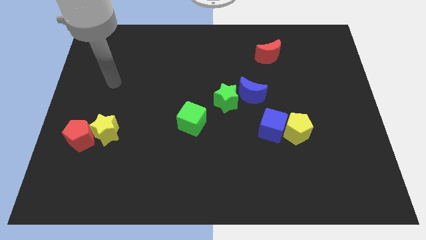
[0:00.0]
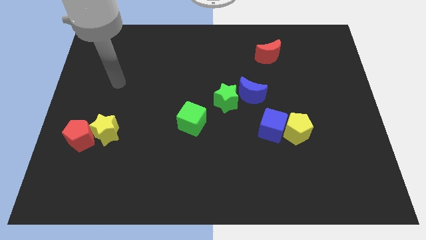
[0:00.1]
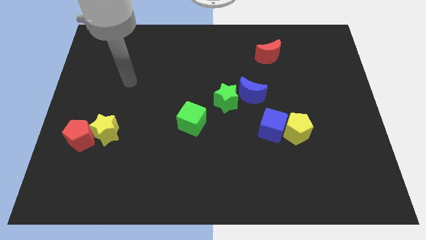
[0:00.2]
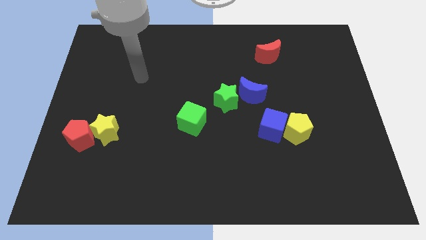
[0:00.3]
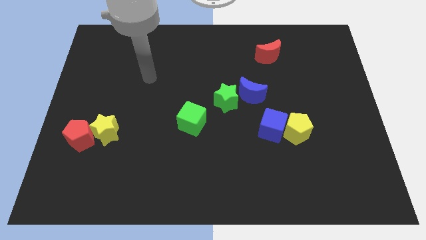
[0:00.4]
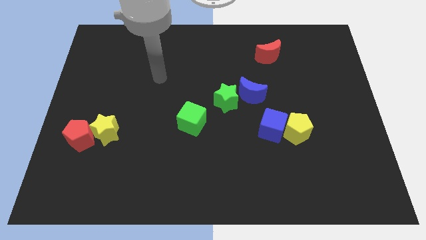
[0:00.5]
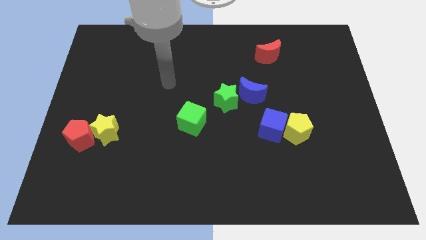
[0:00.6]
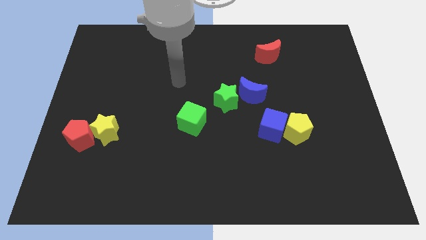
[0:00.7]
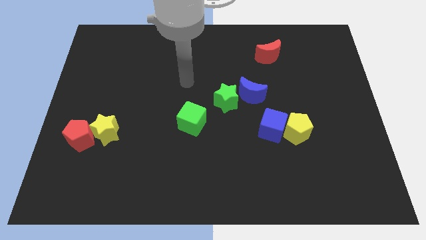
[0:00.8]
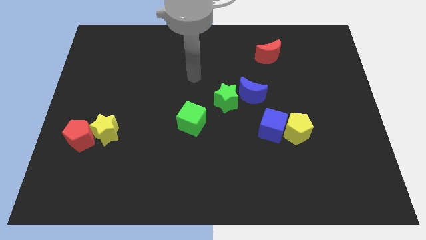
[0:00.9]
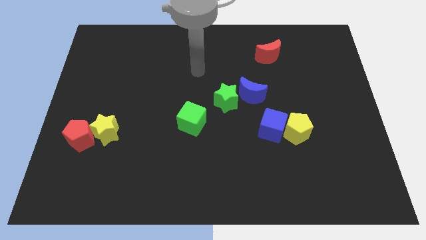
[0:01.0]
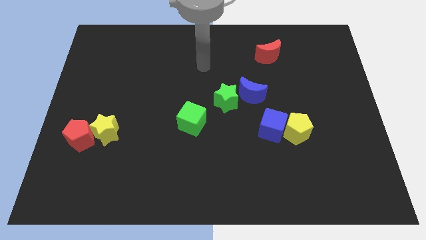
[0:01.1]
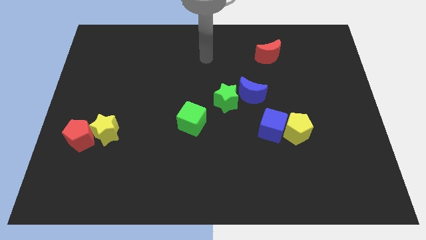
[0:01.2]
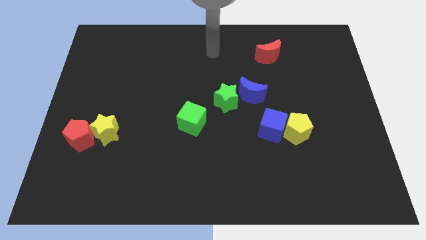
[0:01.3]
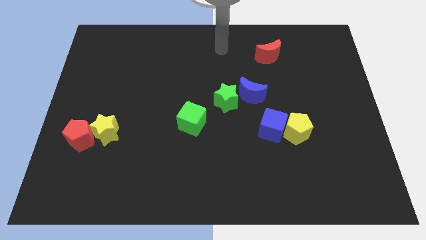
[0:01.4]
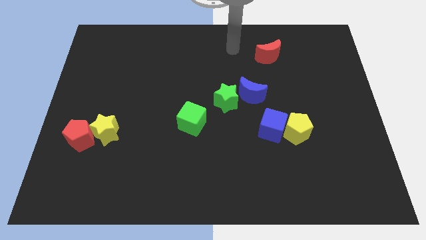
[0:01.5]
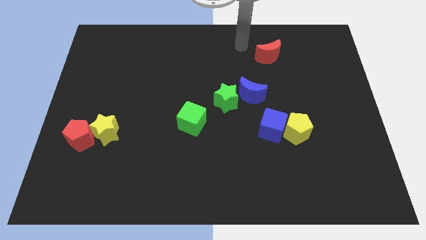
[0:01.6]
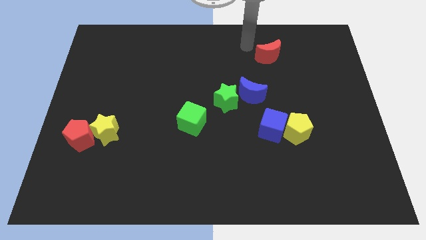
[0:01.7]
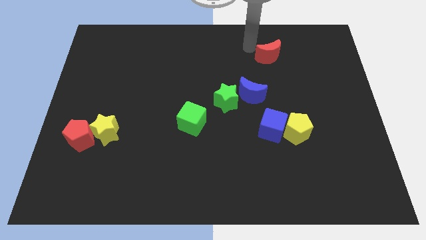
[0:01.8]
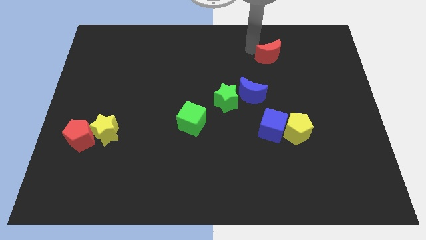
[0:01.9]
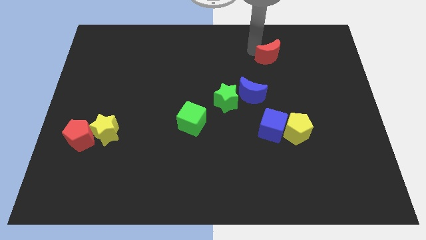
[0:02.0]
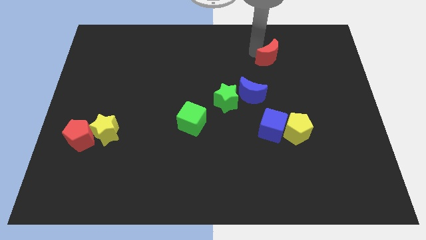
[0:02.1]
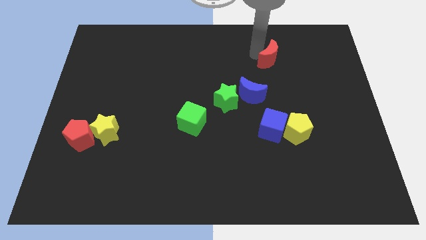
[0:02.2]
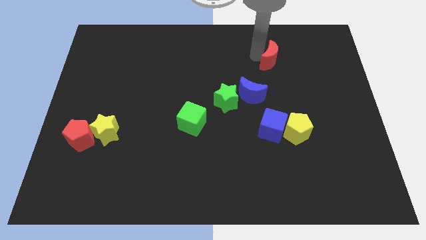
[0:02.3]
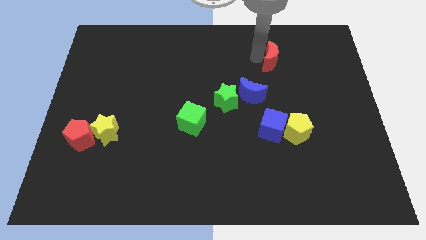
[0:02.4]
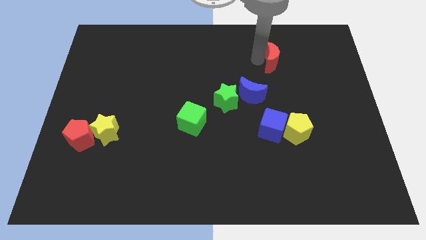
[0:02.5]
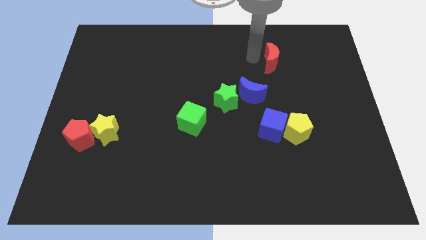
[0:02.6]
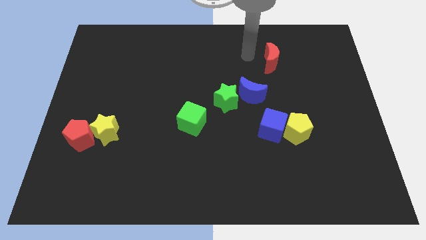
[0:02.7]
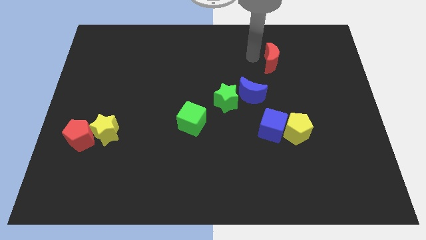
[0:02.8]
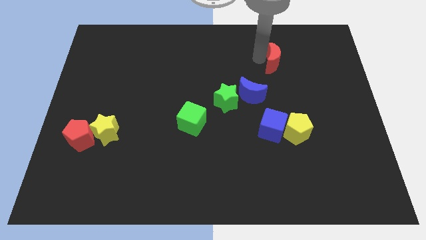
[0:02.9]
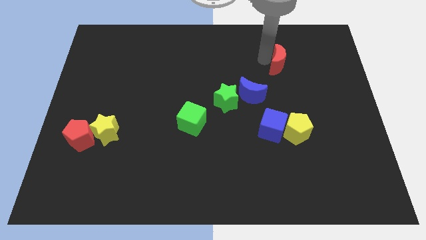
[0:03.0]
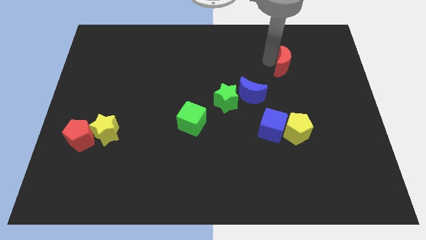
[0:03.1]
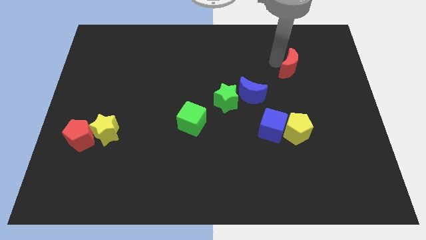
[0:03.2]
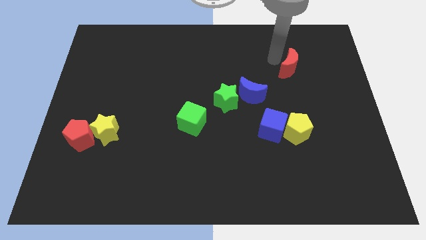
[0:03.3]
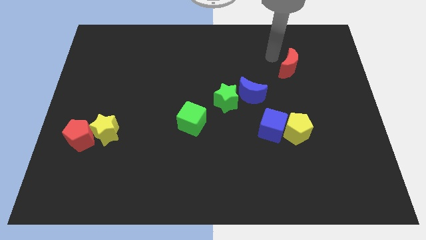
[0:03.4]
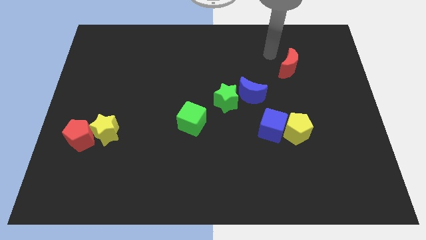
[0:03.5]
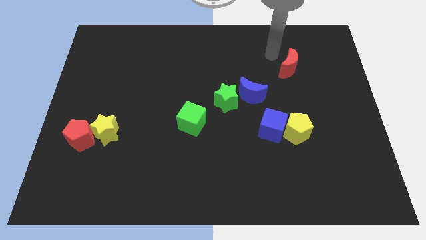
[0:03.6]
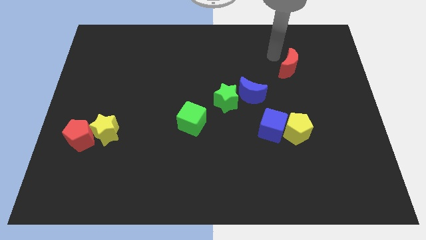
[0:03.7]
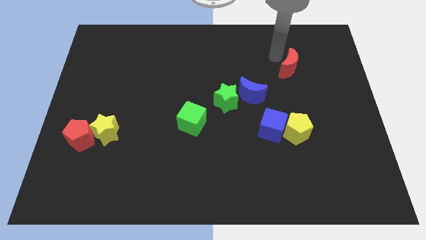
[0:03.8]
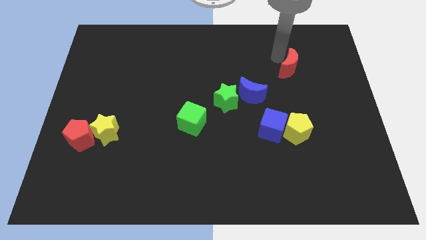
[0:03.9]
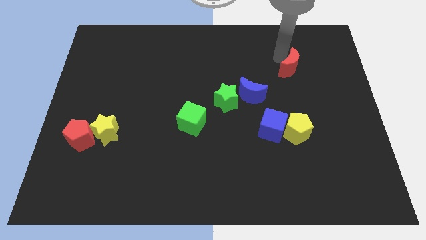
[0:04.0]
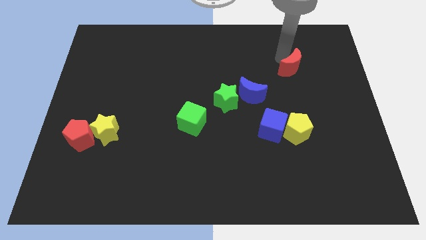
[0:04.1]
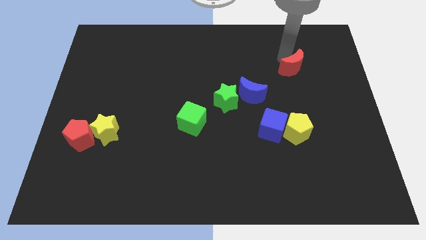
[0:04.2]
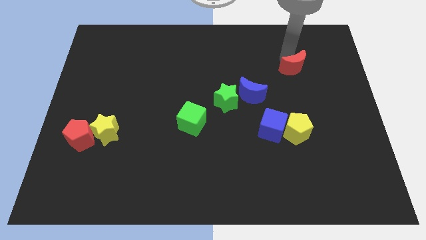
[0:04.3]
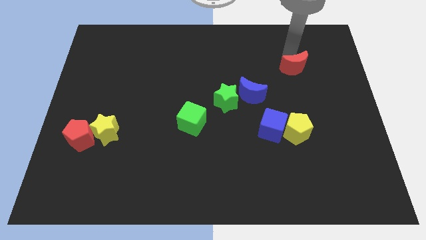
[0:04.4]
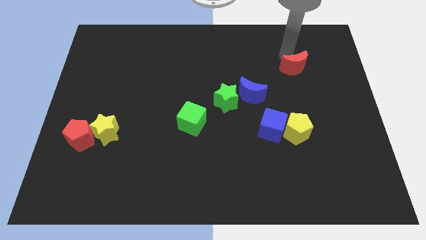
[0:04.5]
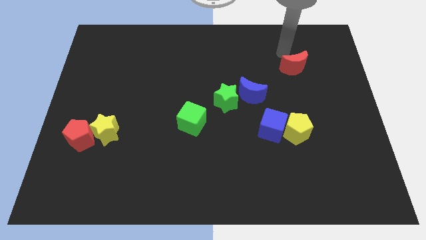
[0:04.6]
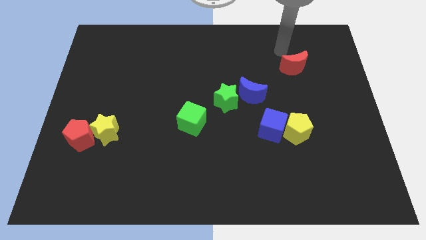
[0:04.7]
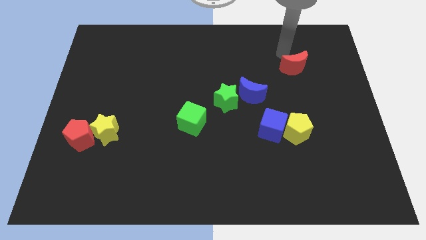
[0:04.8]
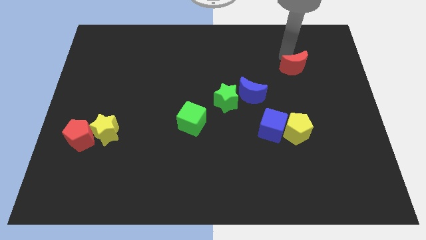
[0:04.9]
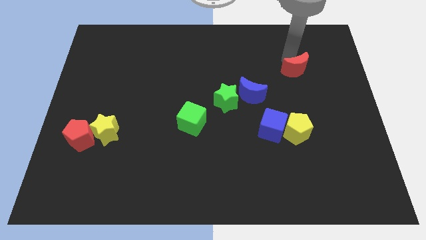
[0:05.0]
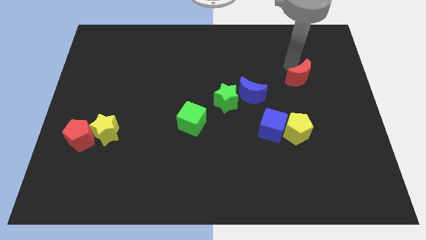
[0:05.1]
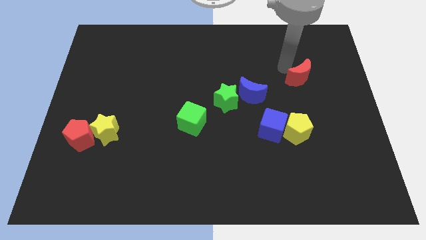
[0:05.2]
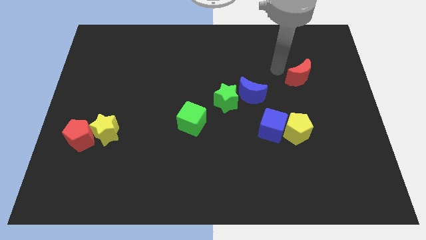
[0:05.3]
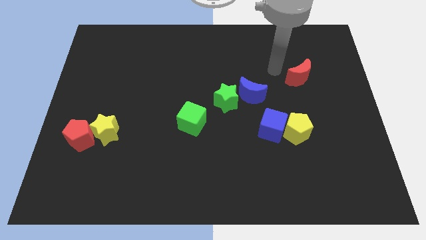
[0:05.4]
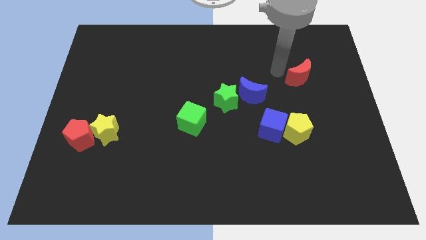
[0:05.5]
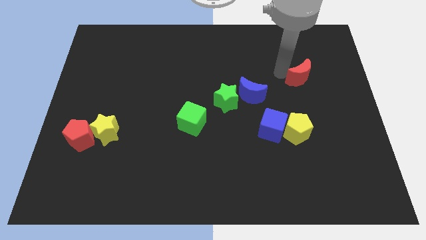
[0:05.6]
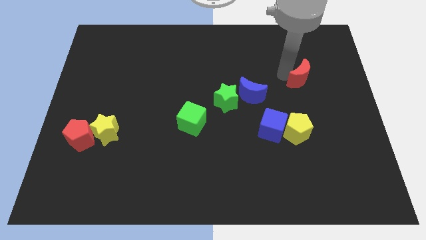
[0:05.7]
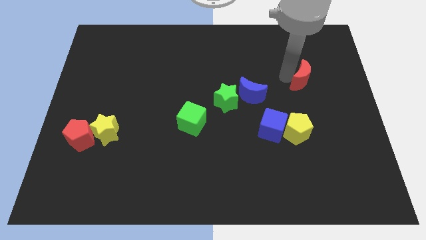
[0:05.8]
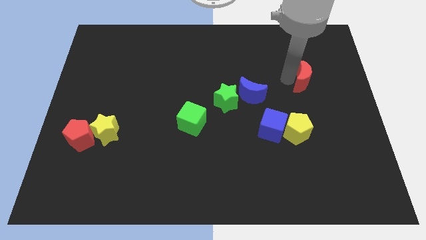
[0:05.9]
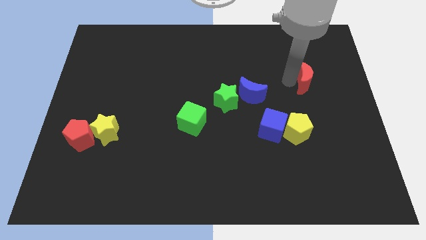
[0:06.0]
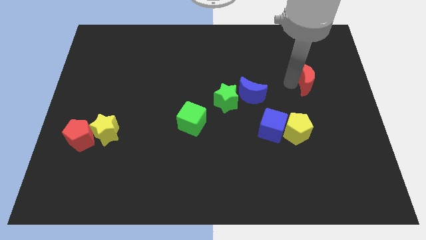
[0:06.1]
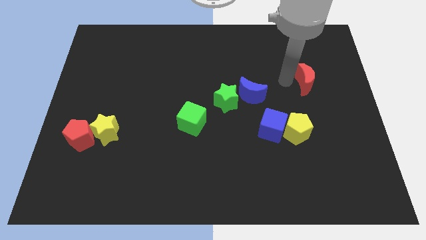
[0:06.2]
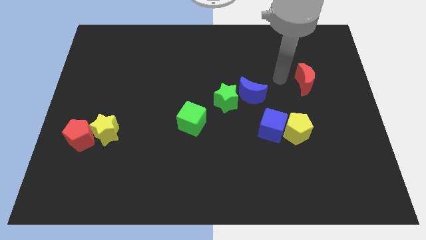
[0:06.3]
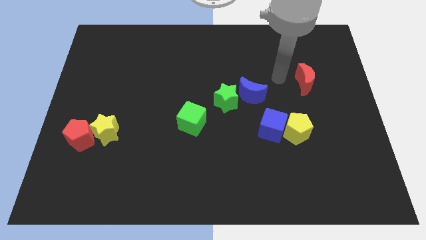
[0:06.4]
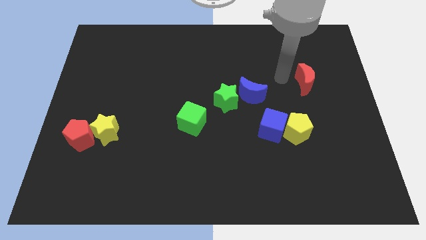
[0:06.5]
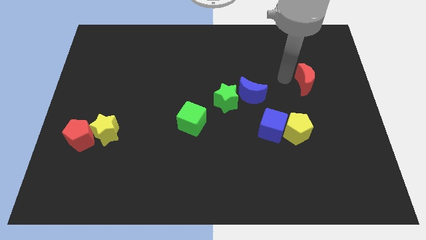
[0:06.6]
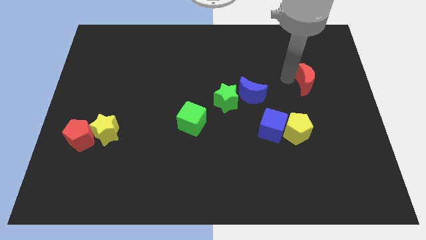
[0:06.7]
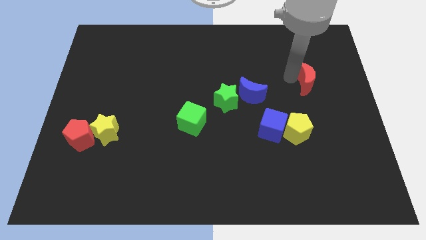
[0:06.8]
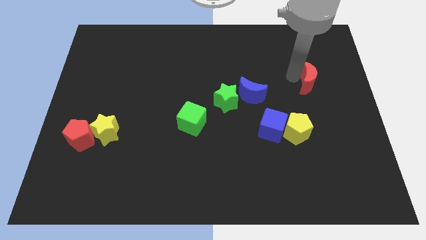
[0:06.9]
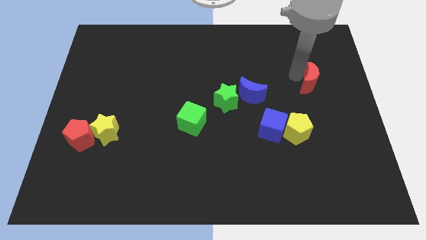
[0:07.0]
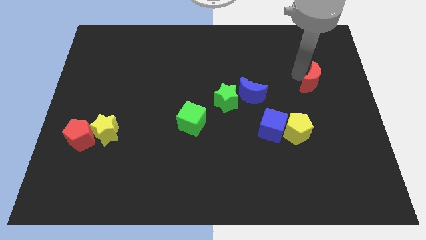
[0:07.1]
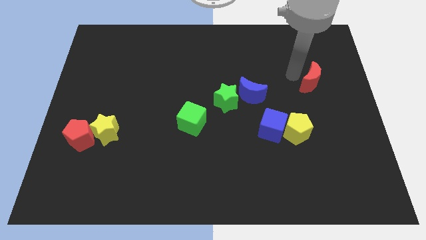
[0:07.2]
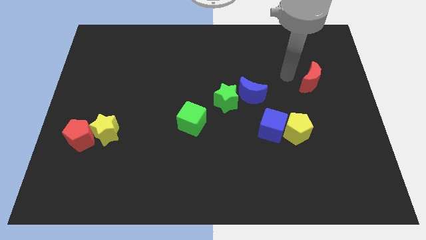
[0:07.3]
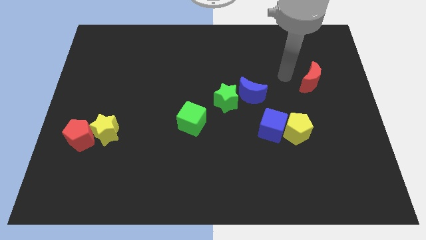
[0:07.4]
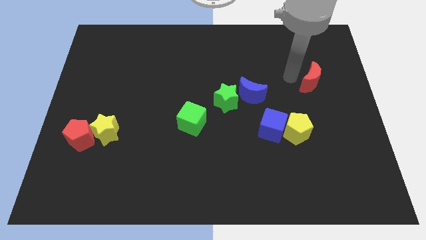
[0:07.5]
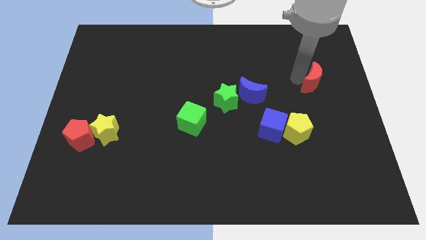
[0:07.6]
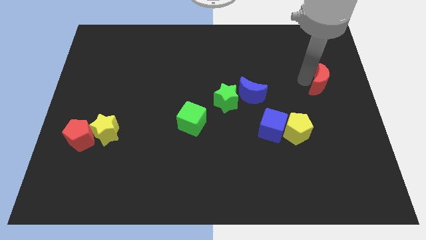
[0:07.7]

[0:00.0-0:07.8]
move the red moon to the right side of the board
